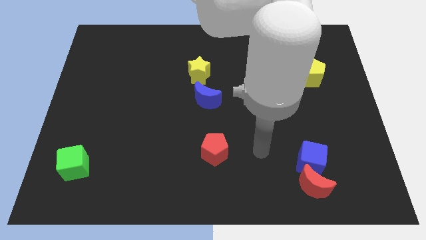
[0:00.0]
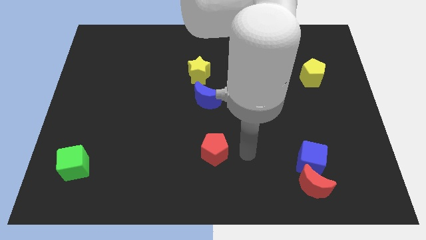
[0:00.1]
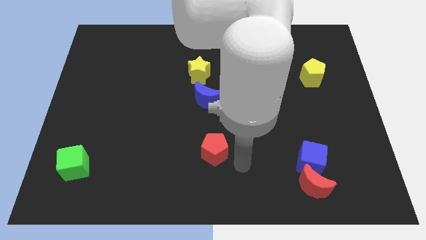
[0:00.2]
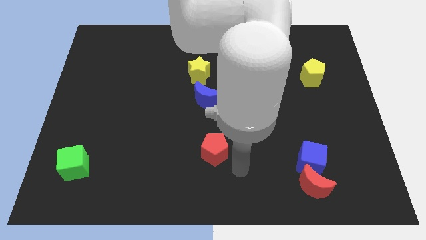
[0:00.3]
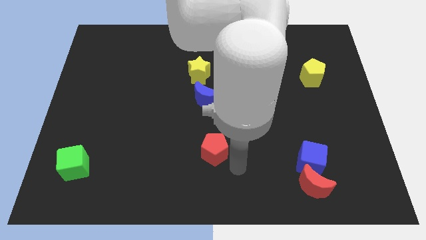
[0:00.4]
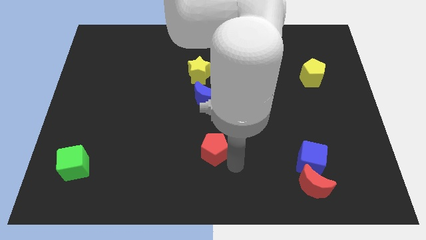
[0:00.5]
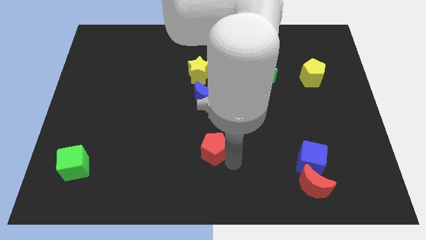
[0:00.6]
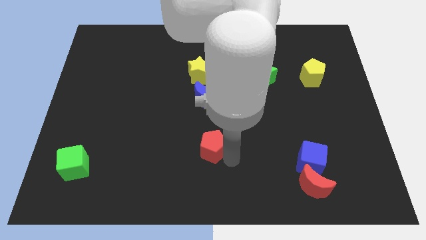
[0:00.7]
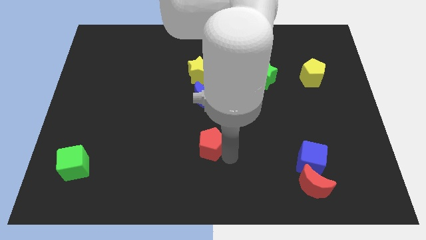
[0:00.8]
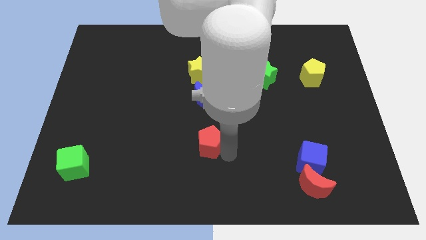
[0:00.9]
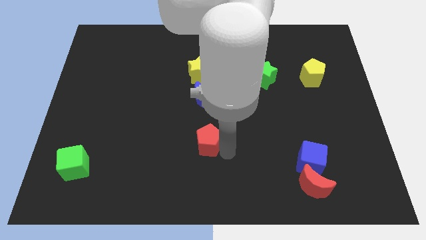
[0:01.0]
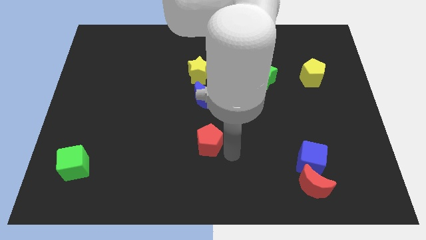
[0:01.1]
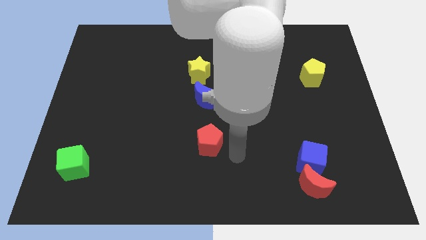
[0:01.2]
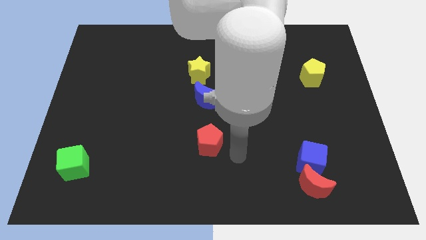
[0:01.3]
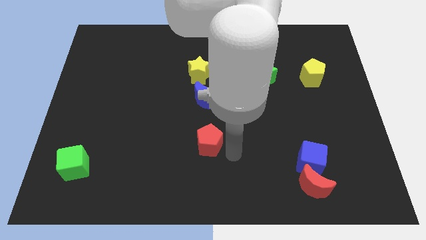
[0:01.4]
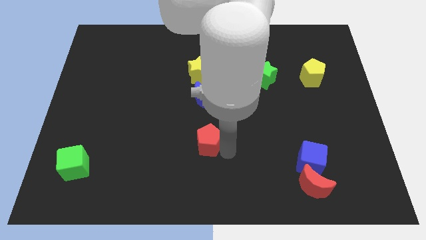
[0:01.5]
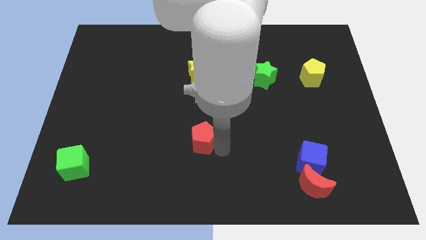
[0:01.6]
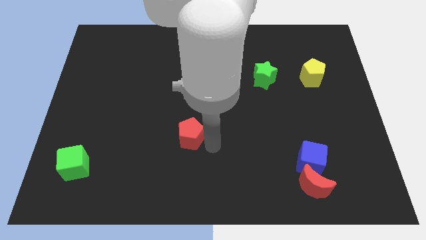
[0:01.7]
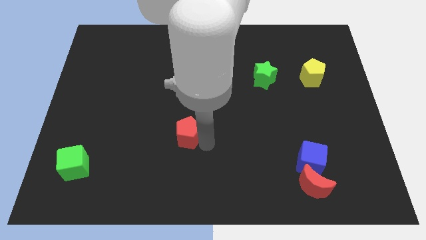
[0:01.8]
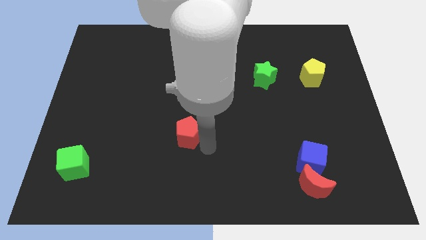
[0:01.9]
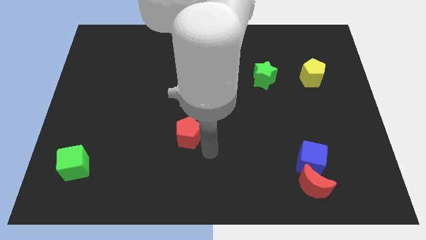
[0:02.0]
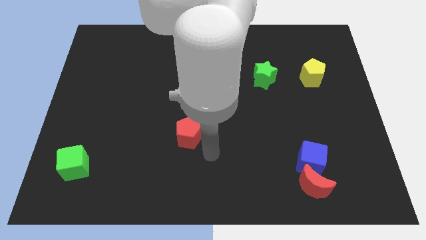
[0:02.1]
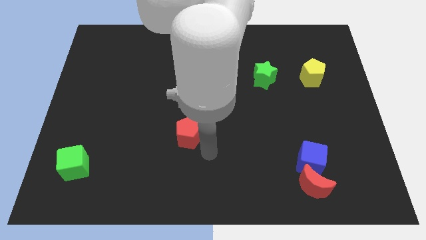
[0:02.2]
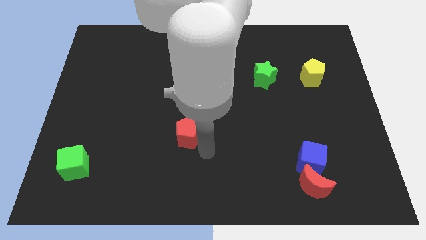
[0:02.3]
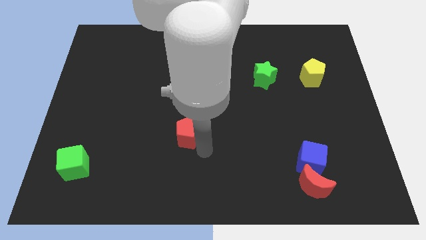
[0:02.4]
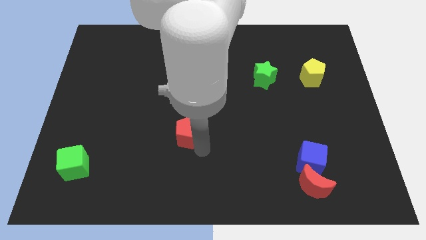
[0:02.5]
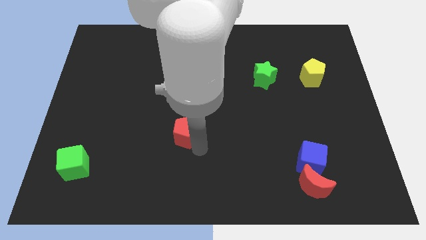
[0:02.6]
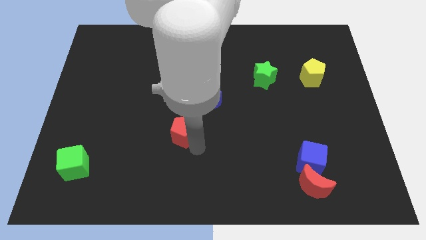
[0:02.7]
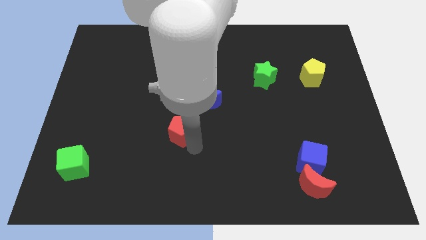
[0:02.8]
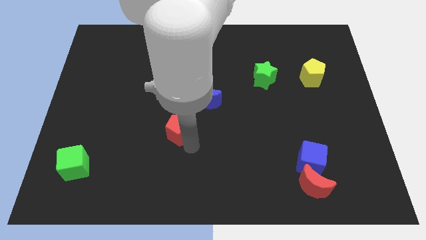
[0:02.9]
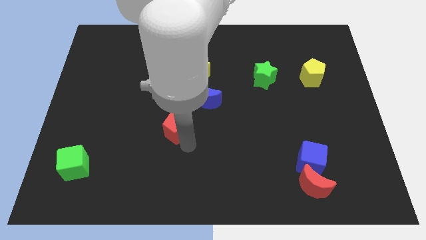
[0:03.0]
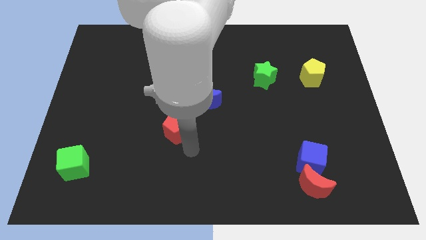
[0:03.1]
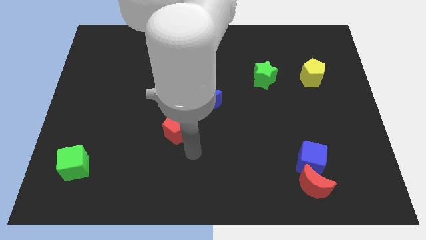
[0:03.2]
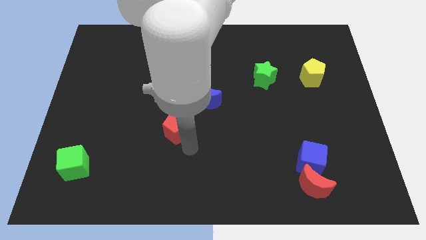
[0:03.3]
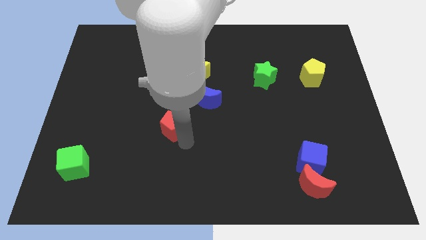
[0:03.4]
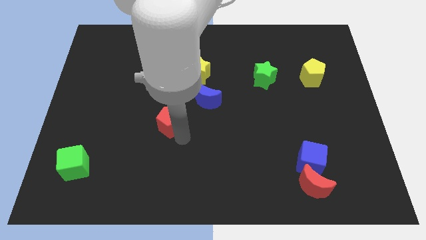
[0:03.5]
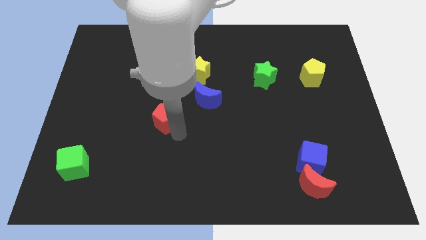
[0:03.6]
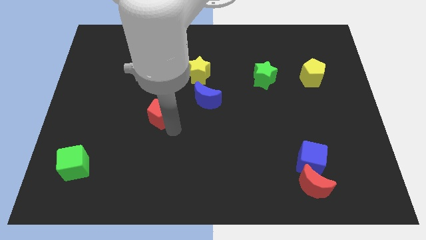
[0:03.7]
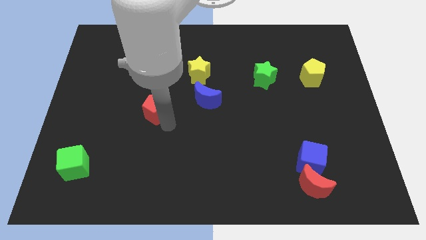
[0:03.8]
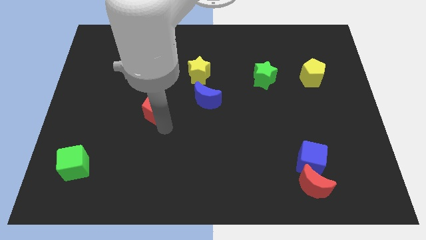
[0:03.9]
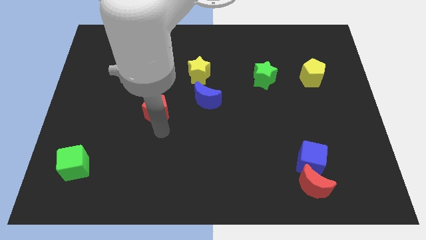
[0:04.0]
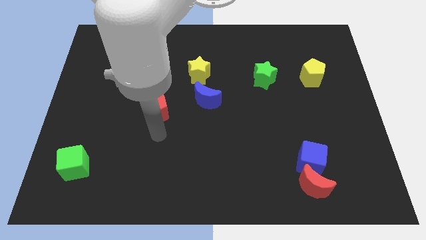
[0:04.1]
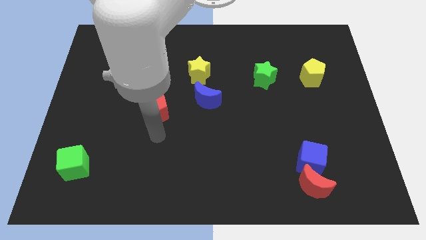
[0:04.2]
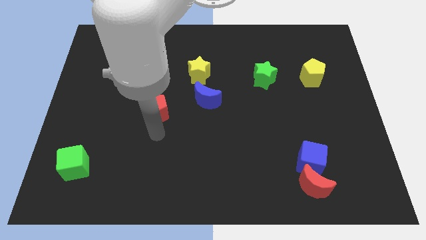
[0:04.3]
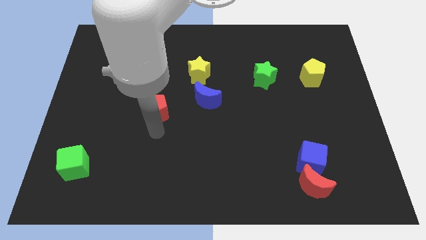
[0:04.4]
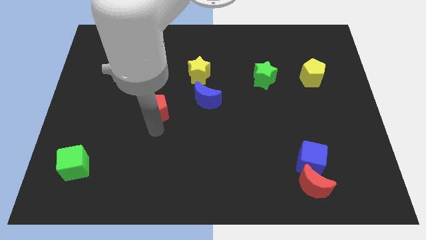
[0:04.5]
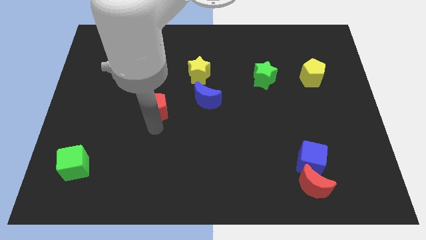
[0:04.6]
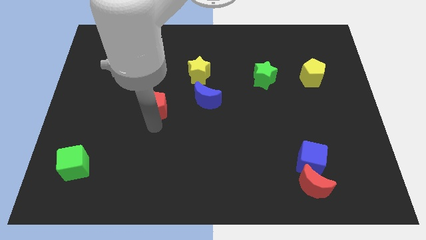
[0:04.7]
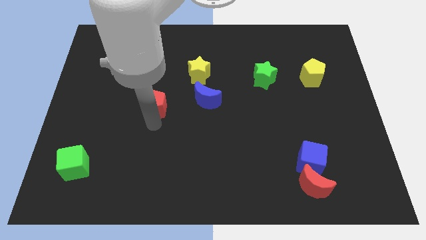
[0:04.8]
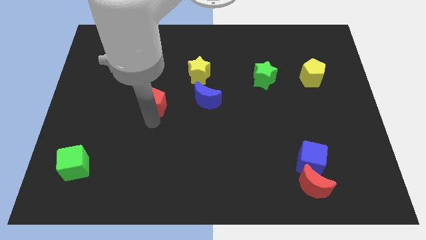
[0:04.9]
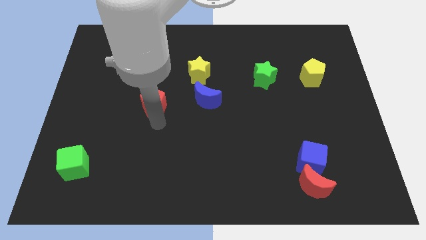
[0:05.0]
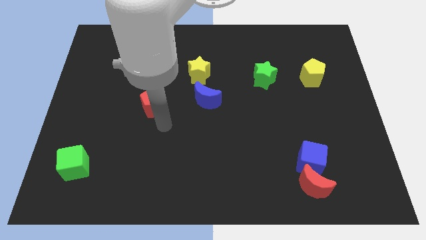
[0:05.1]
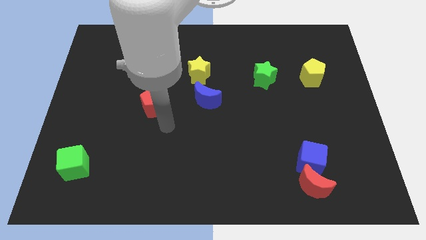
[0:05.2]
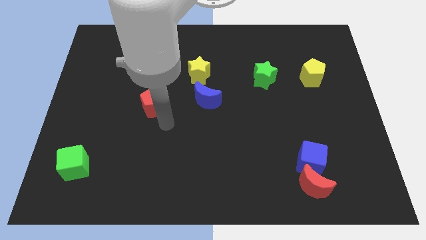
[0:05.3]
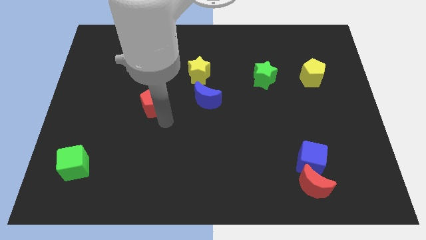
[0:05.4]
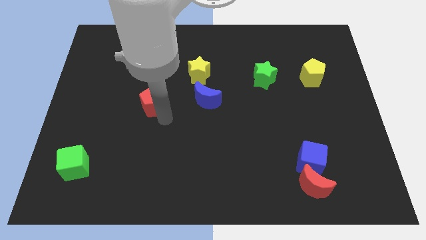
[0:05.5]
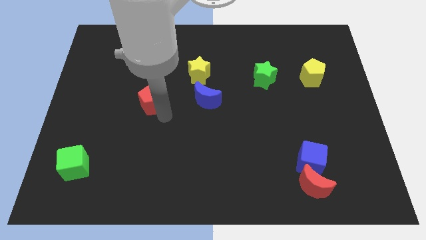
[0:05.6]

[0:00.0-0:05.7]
slide the red pentagon up and to the left

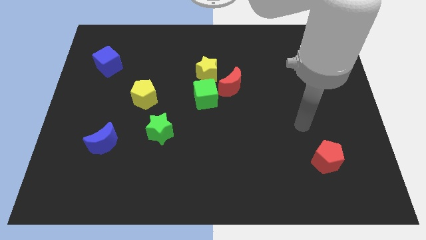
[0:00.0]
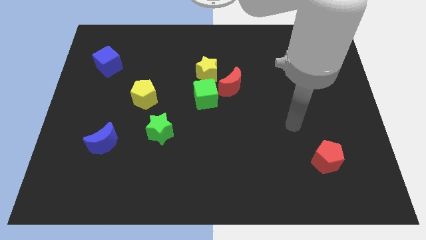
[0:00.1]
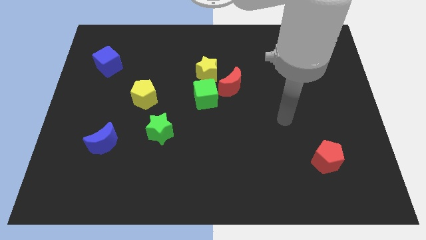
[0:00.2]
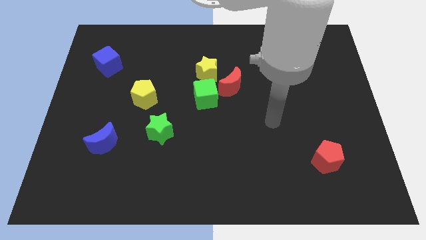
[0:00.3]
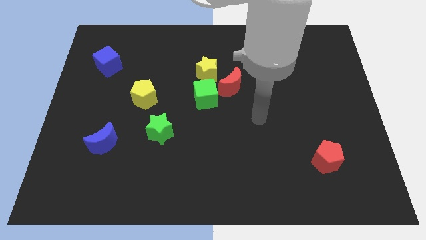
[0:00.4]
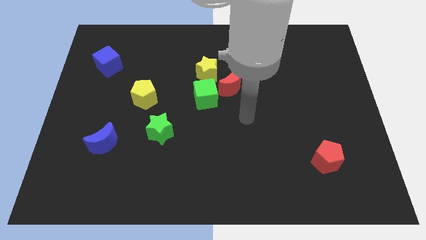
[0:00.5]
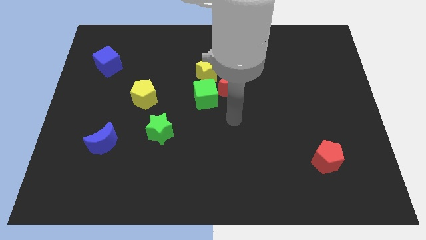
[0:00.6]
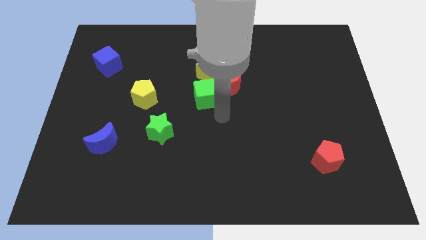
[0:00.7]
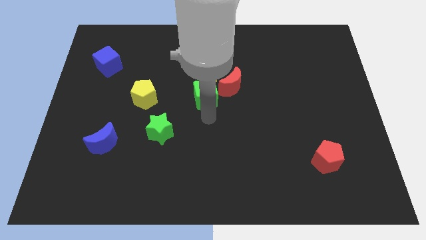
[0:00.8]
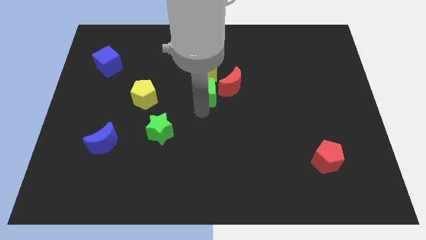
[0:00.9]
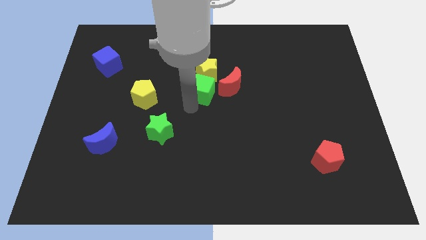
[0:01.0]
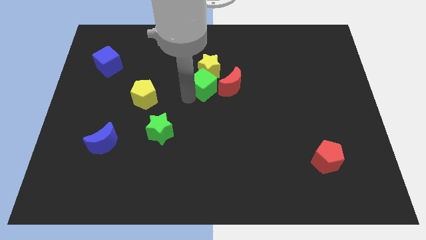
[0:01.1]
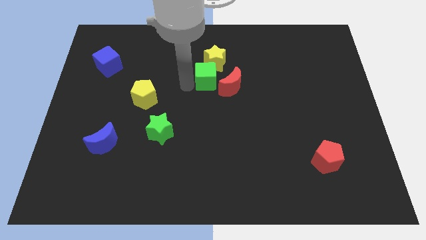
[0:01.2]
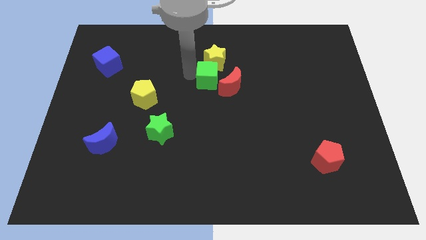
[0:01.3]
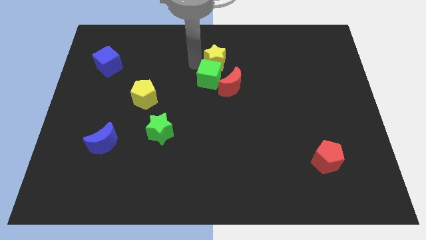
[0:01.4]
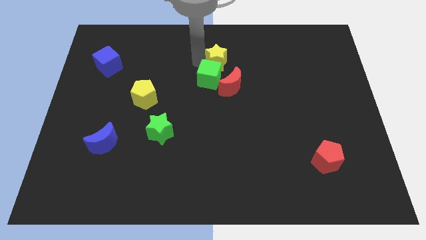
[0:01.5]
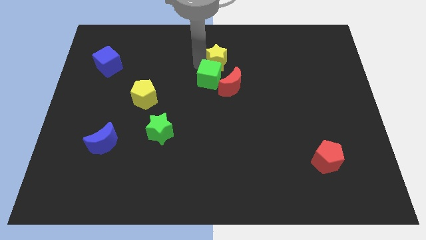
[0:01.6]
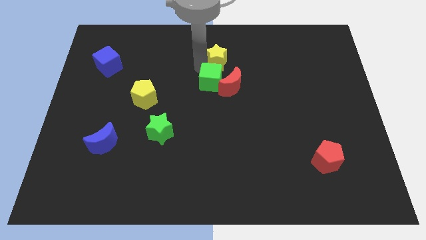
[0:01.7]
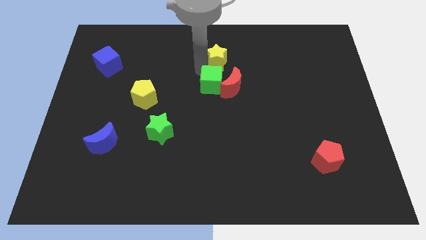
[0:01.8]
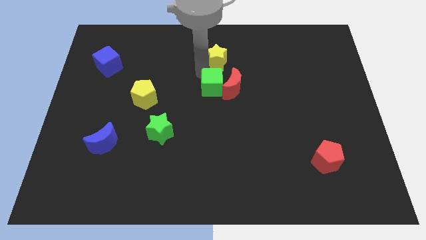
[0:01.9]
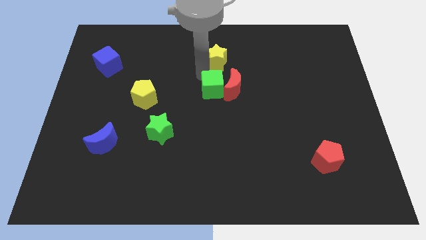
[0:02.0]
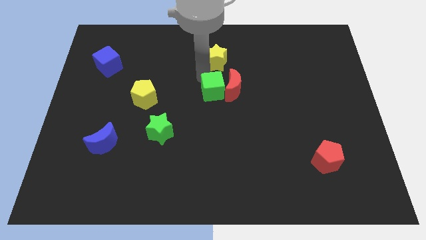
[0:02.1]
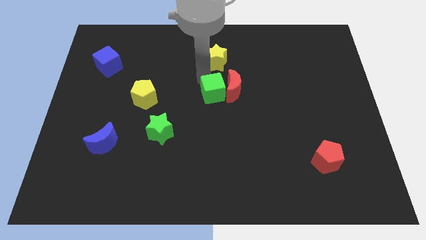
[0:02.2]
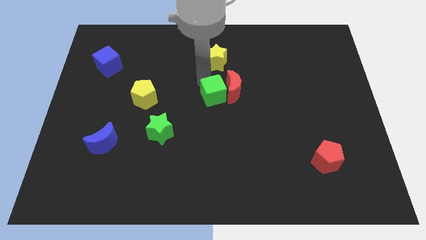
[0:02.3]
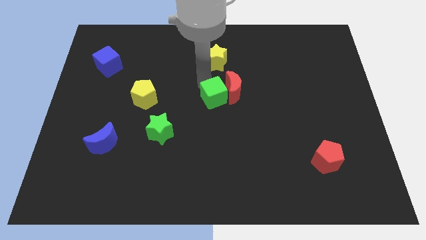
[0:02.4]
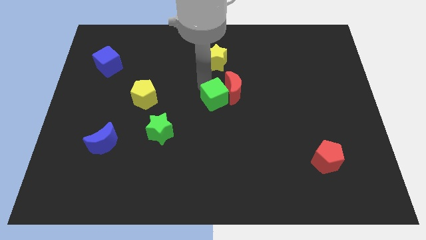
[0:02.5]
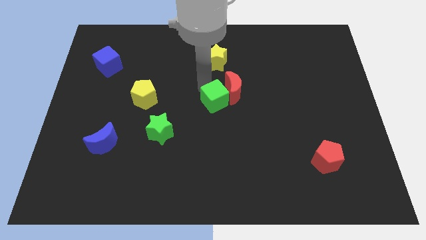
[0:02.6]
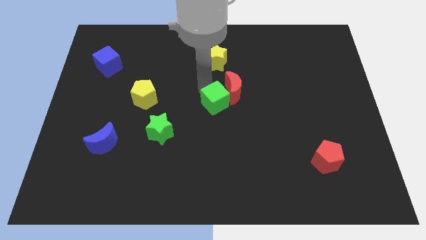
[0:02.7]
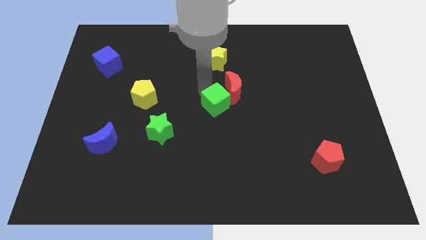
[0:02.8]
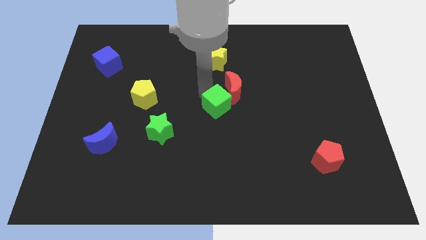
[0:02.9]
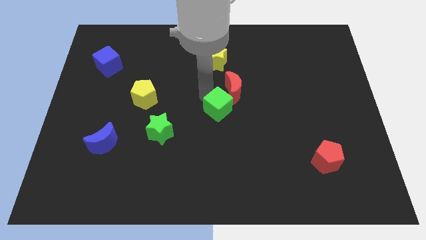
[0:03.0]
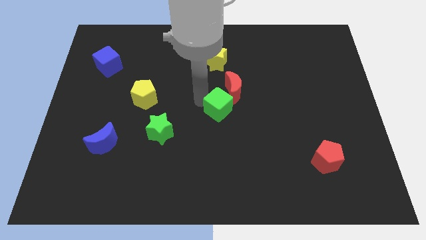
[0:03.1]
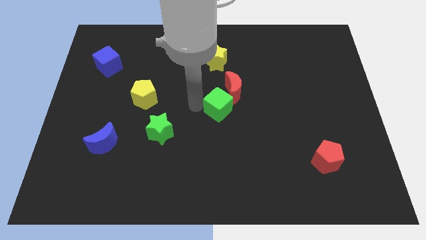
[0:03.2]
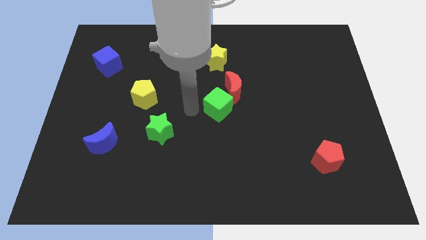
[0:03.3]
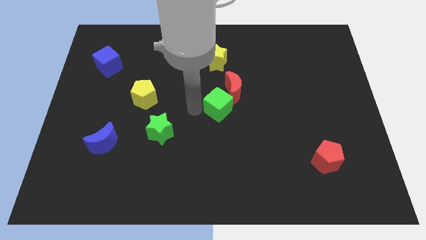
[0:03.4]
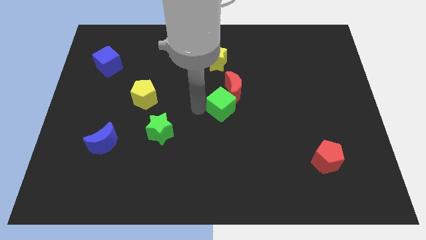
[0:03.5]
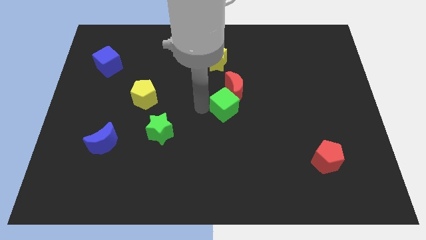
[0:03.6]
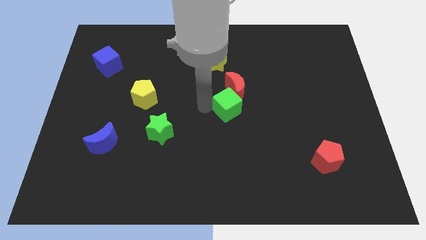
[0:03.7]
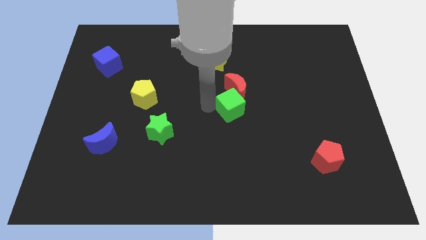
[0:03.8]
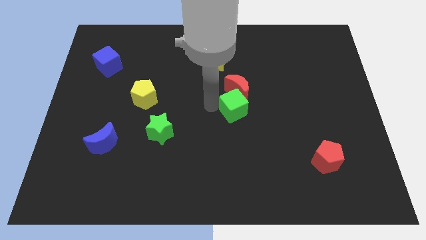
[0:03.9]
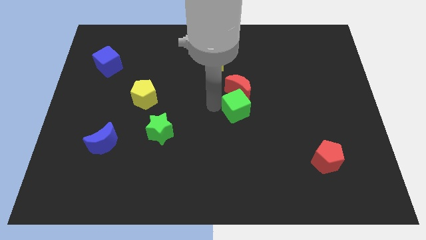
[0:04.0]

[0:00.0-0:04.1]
push the green cube somewhat right
